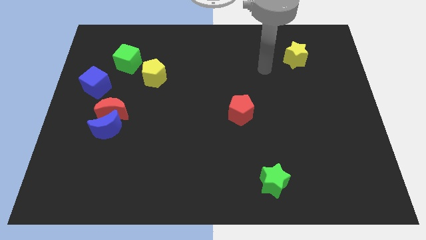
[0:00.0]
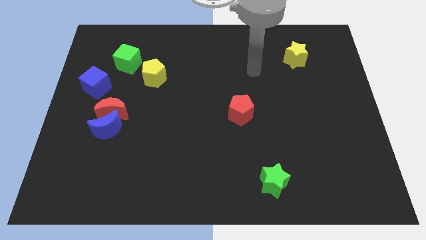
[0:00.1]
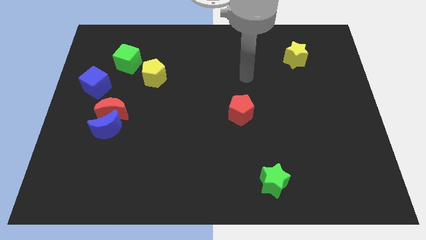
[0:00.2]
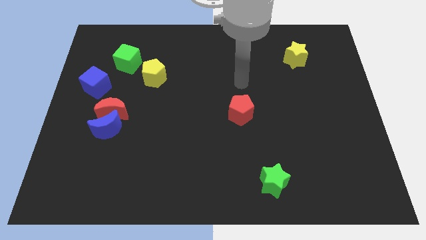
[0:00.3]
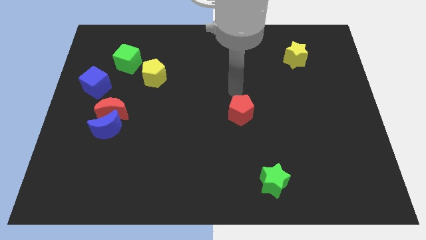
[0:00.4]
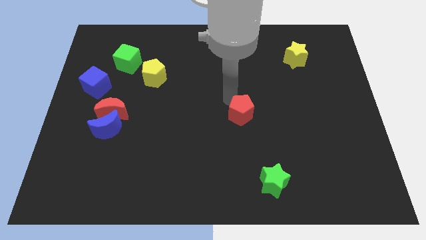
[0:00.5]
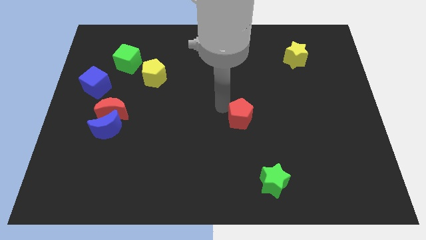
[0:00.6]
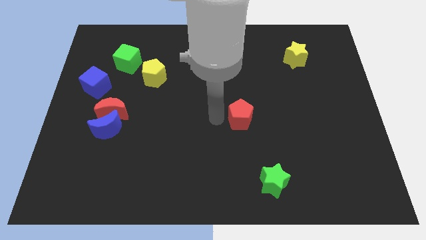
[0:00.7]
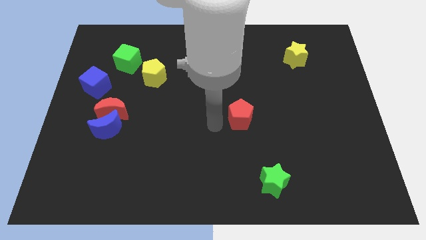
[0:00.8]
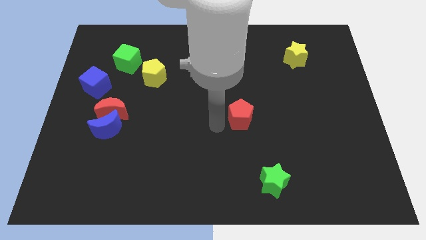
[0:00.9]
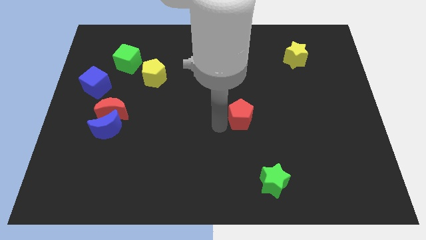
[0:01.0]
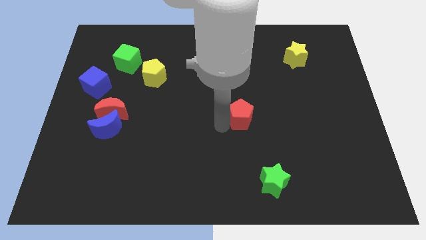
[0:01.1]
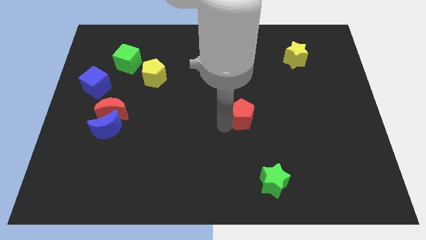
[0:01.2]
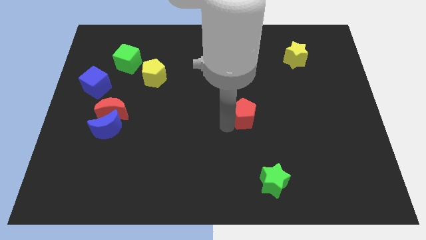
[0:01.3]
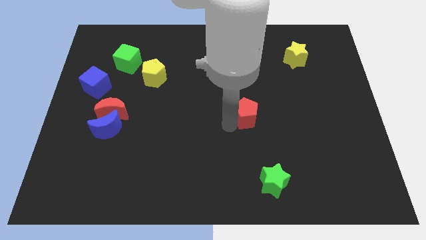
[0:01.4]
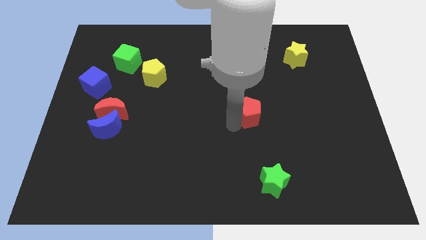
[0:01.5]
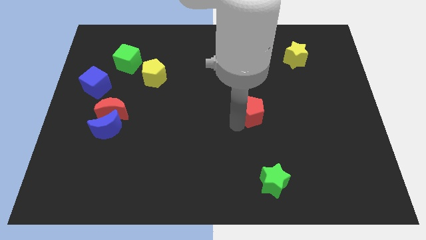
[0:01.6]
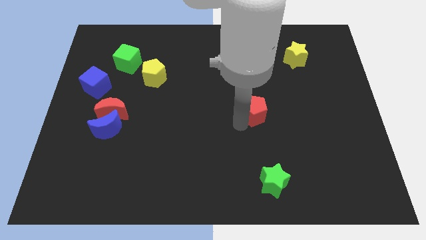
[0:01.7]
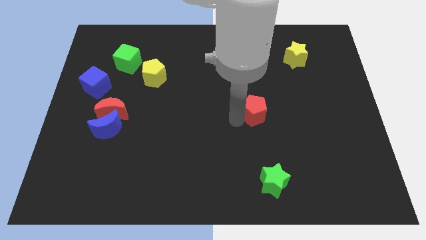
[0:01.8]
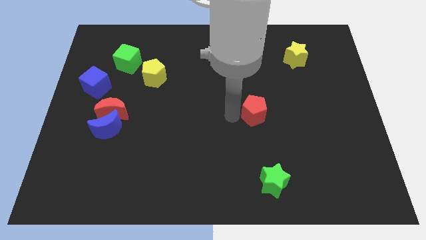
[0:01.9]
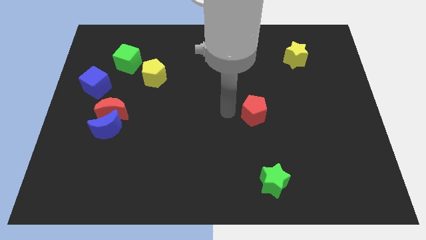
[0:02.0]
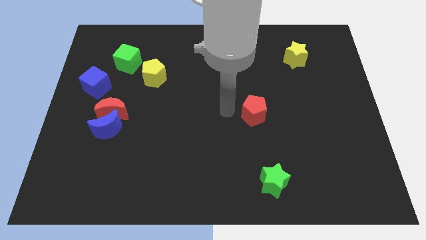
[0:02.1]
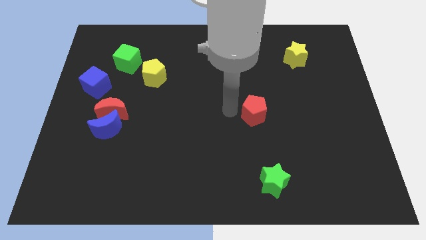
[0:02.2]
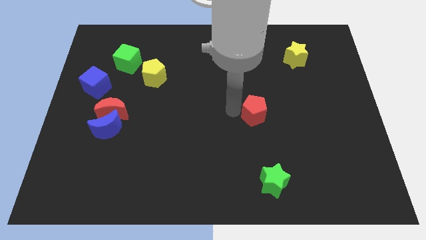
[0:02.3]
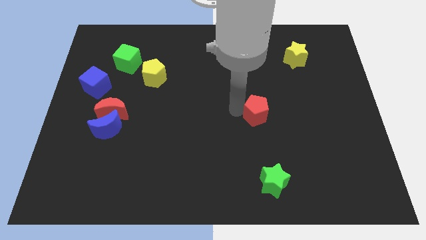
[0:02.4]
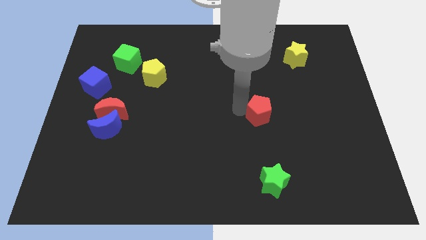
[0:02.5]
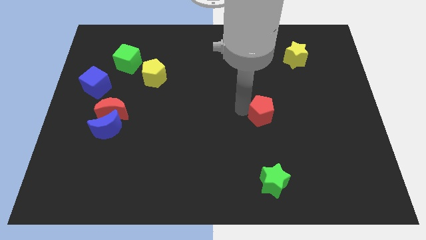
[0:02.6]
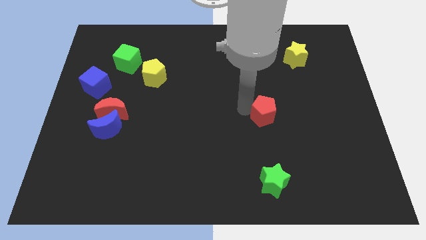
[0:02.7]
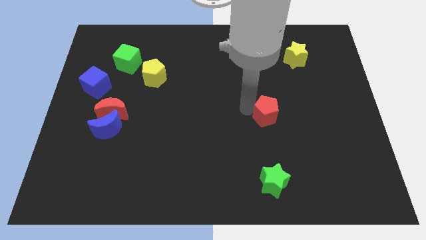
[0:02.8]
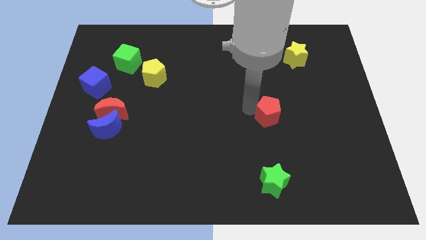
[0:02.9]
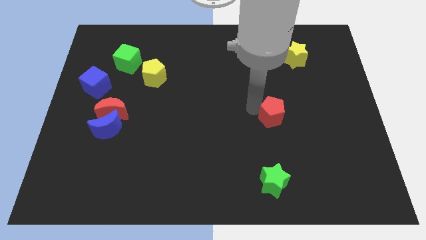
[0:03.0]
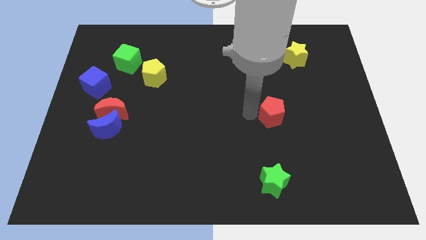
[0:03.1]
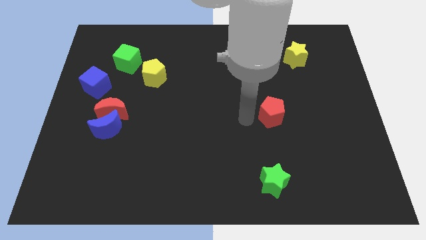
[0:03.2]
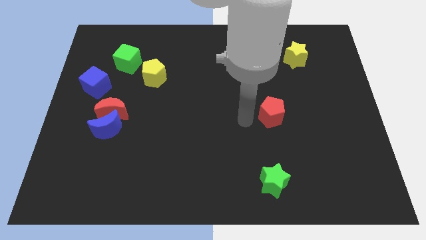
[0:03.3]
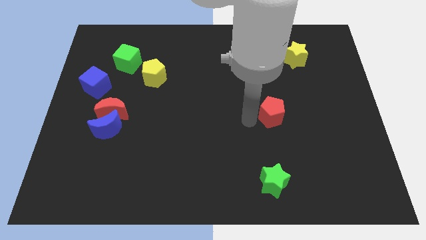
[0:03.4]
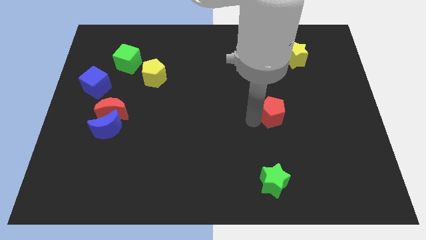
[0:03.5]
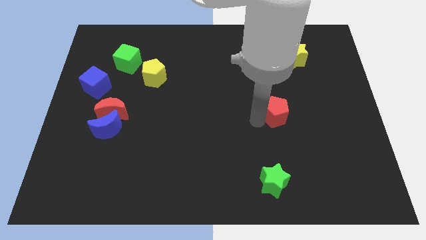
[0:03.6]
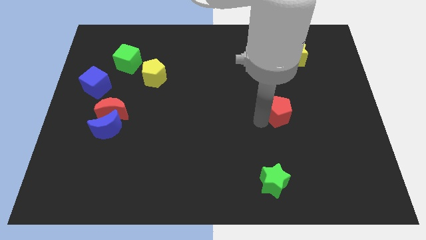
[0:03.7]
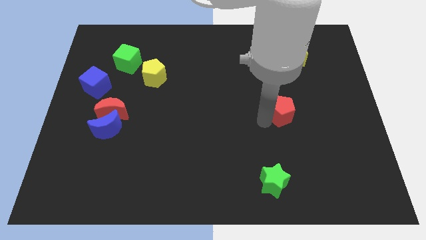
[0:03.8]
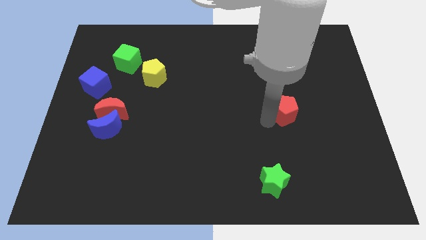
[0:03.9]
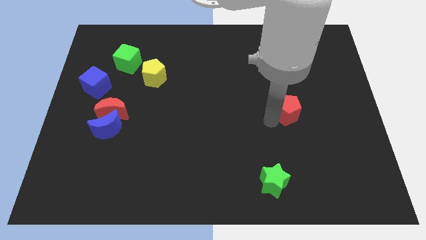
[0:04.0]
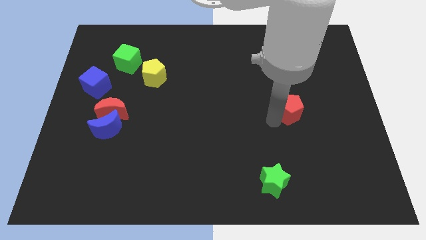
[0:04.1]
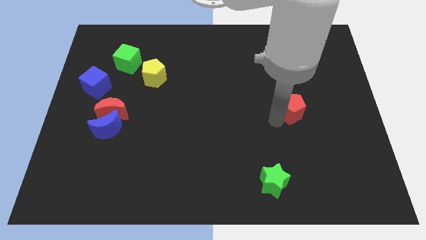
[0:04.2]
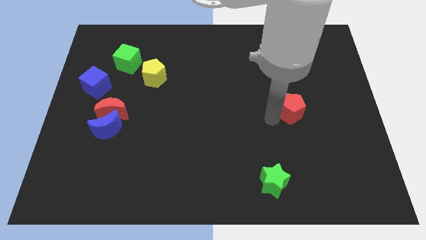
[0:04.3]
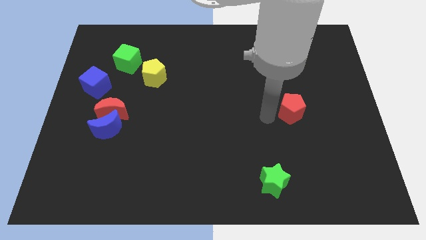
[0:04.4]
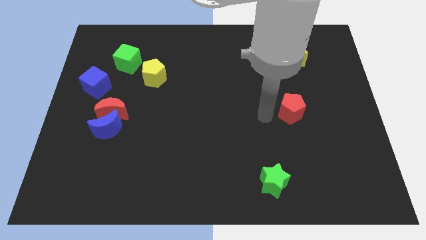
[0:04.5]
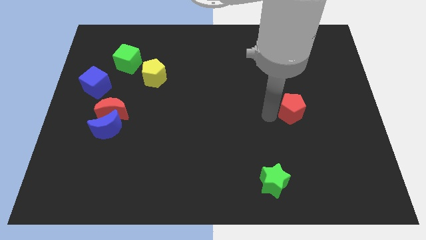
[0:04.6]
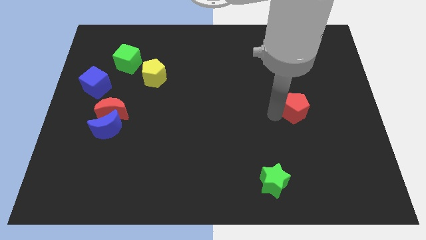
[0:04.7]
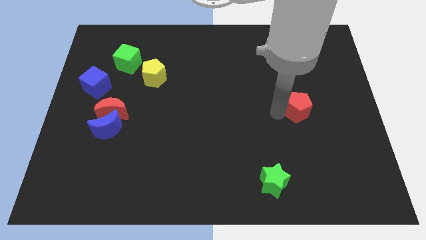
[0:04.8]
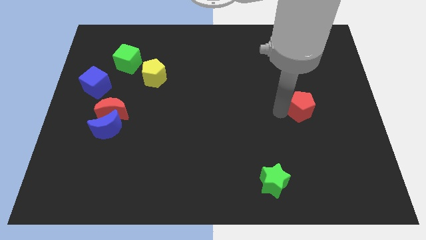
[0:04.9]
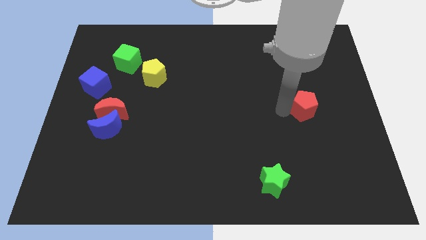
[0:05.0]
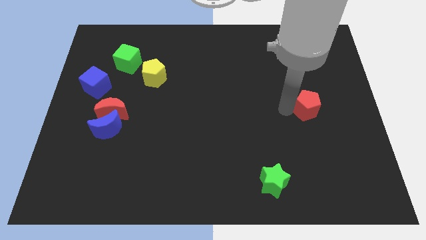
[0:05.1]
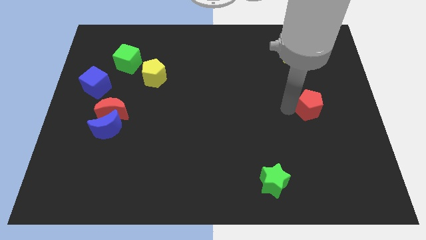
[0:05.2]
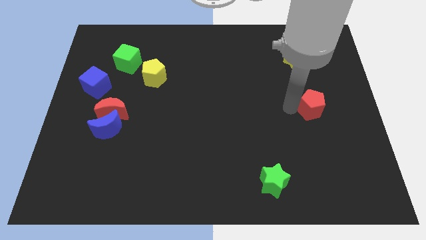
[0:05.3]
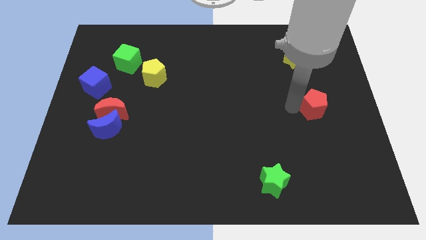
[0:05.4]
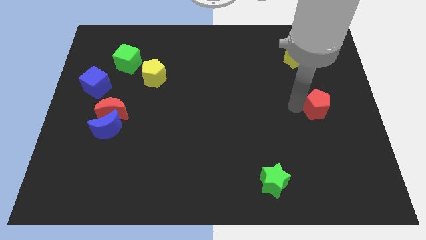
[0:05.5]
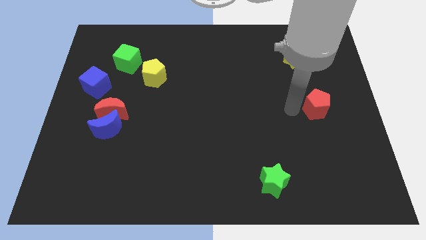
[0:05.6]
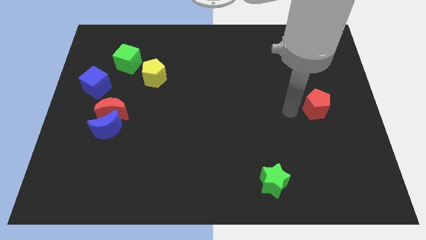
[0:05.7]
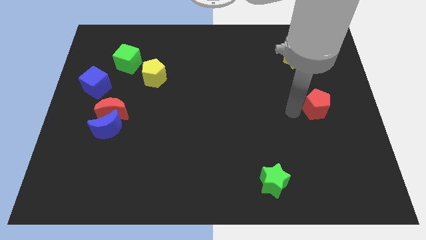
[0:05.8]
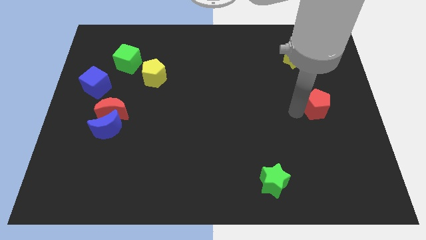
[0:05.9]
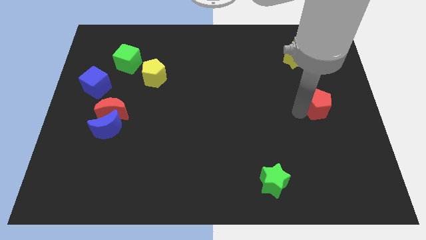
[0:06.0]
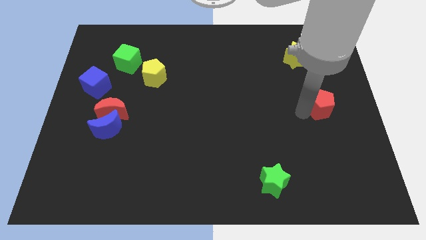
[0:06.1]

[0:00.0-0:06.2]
move the red pentagon to the right side of the board
